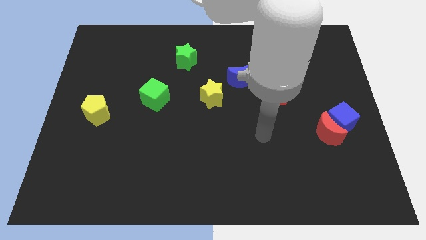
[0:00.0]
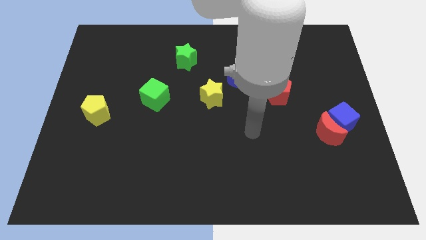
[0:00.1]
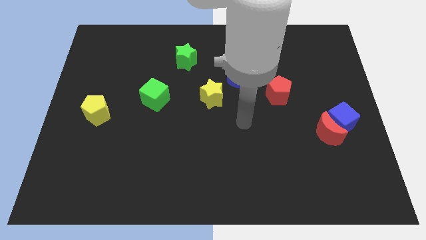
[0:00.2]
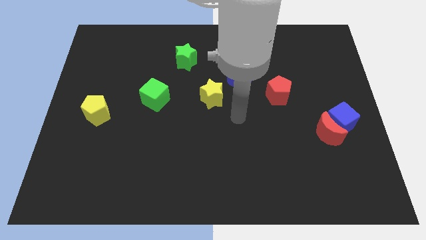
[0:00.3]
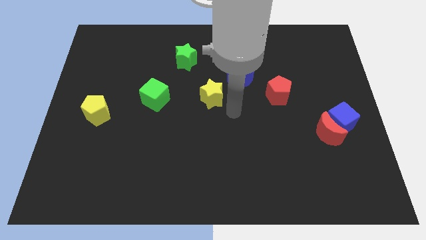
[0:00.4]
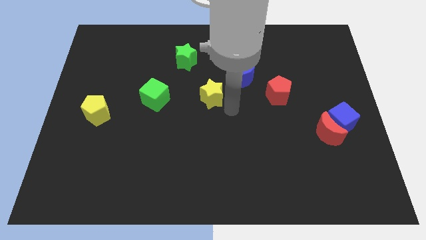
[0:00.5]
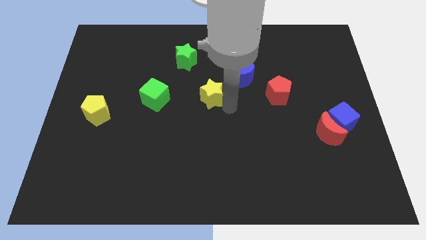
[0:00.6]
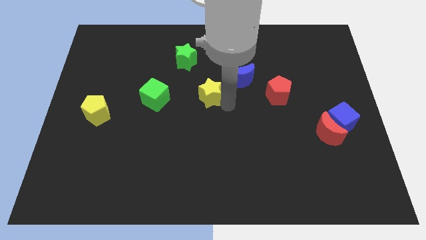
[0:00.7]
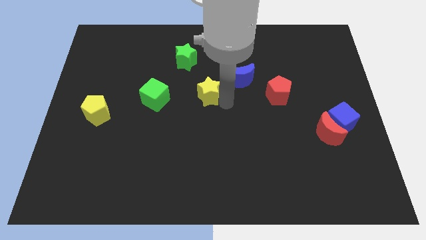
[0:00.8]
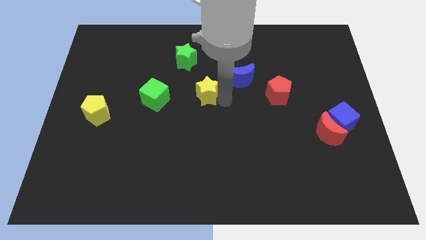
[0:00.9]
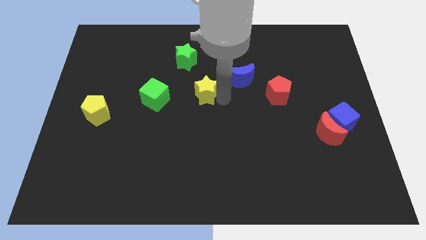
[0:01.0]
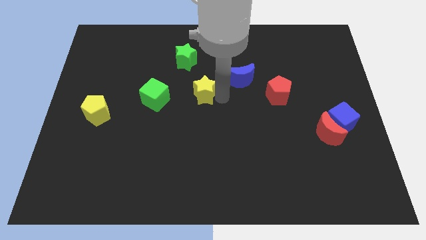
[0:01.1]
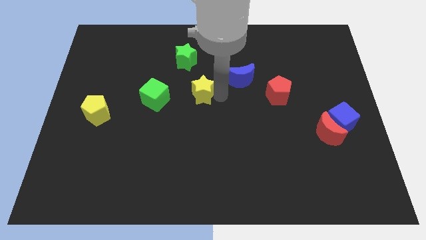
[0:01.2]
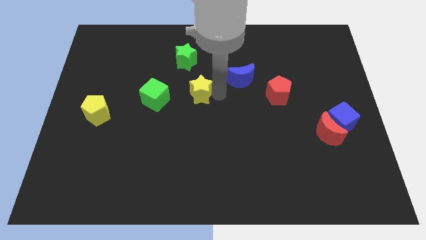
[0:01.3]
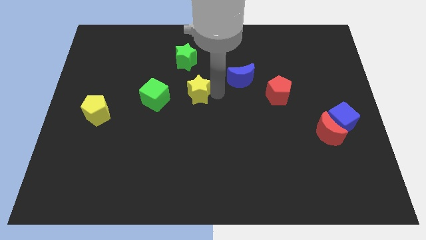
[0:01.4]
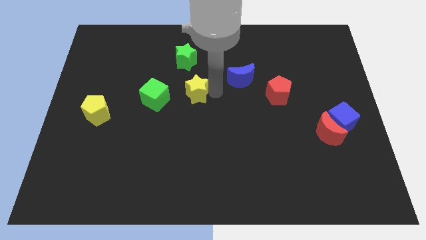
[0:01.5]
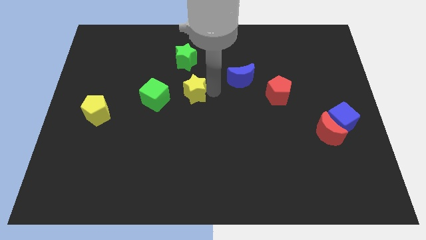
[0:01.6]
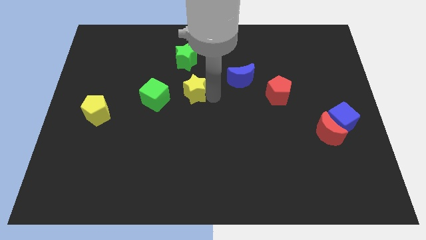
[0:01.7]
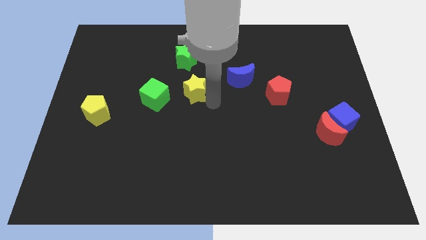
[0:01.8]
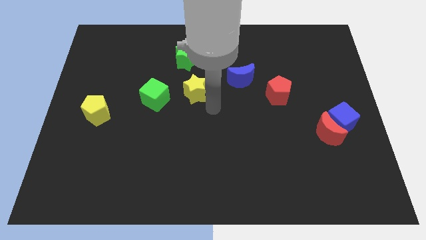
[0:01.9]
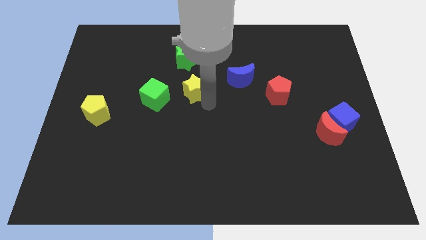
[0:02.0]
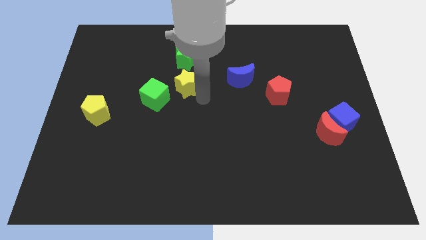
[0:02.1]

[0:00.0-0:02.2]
slide the yellow star somewhat diagonally upwards and to the left

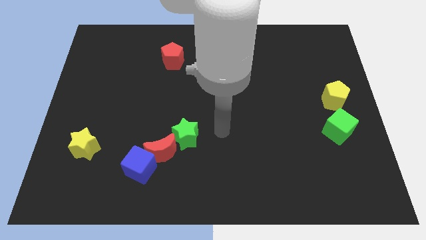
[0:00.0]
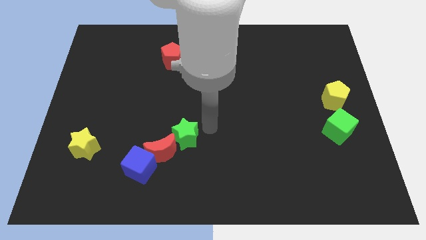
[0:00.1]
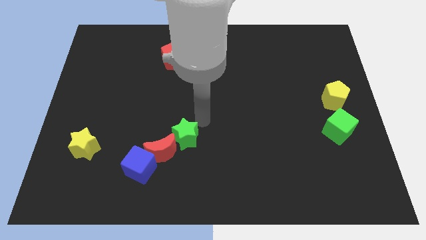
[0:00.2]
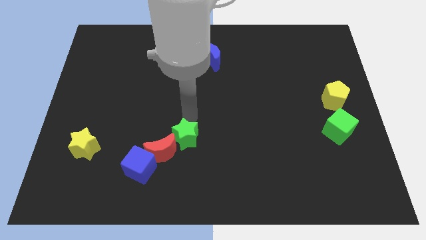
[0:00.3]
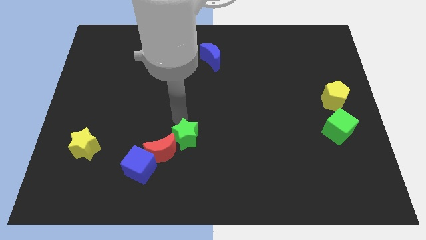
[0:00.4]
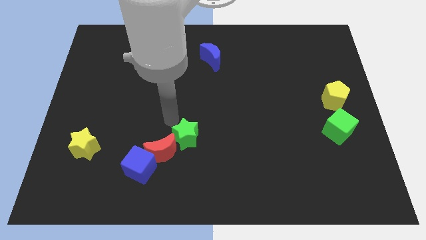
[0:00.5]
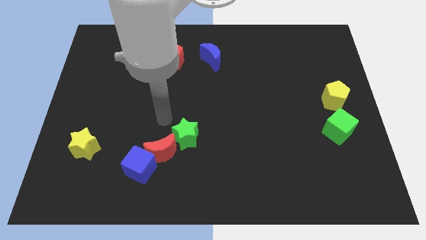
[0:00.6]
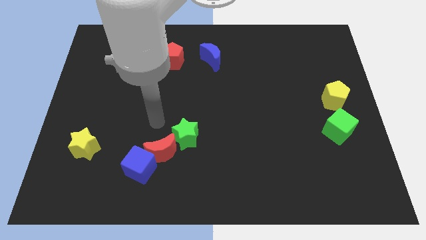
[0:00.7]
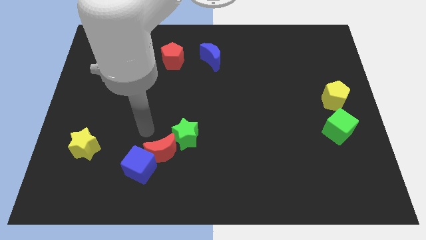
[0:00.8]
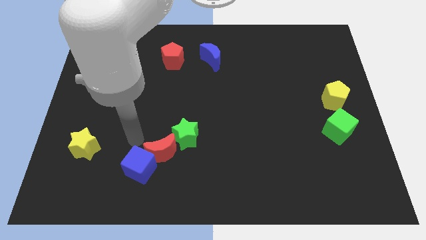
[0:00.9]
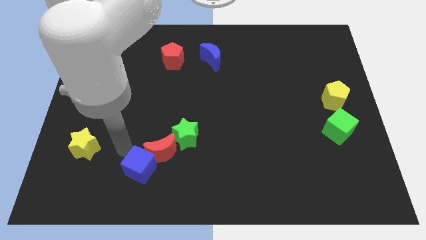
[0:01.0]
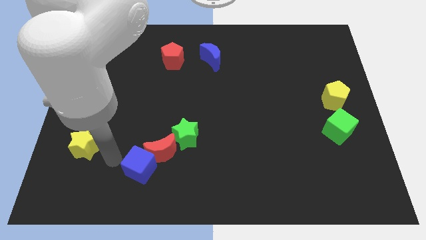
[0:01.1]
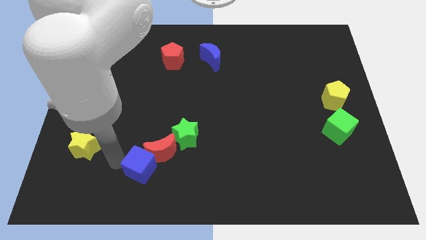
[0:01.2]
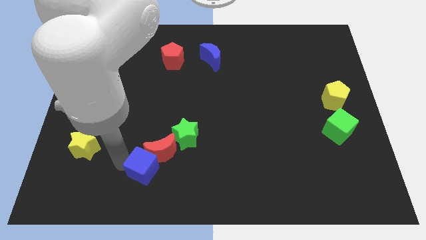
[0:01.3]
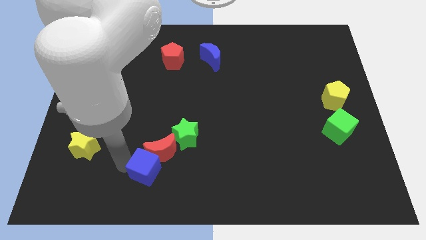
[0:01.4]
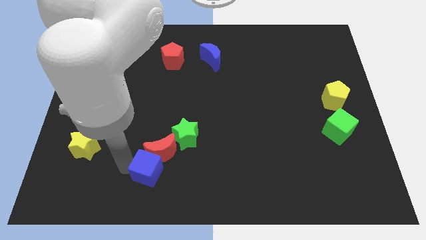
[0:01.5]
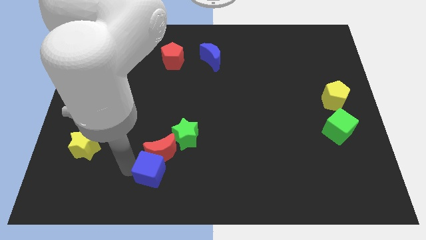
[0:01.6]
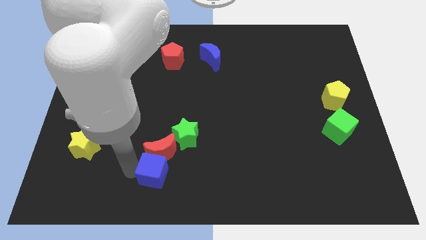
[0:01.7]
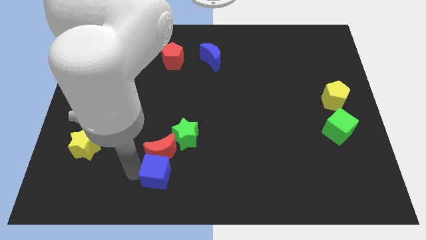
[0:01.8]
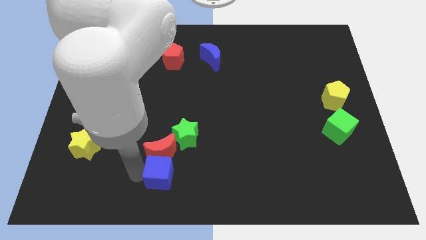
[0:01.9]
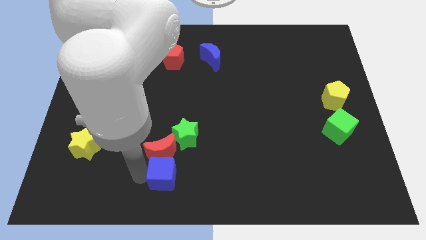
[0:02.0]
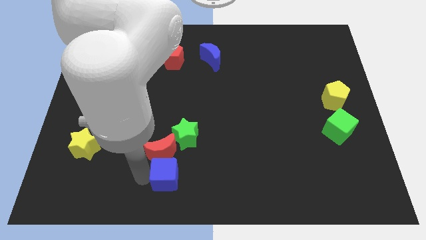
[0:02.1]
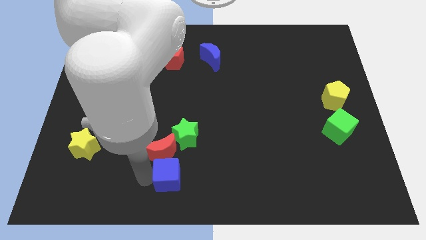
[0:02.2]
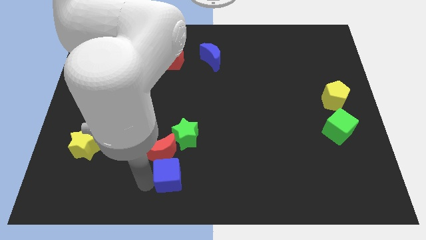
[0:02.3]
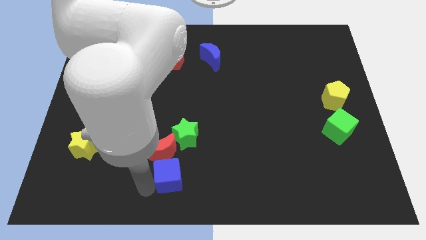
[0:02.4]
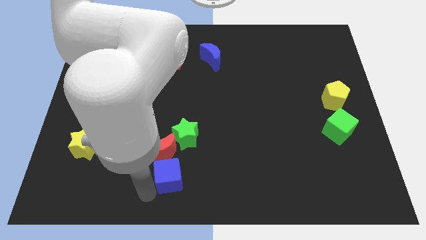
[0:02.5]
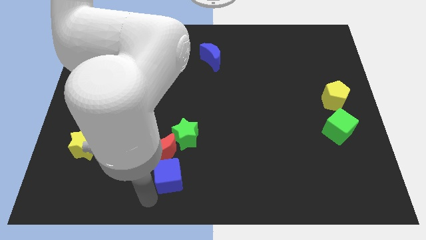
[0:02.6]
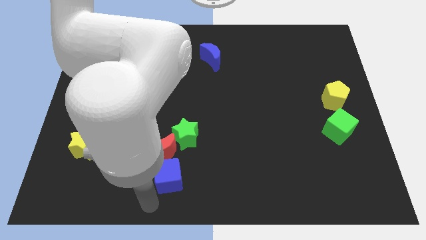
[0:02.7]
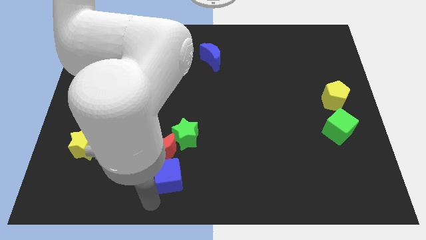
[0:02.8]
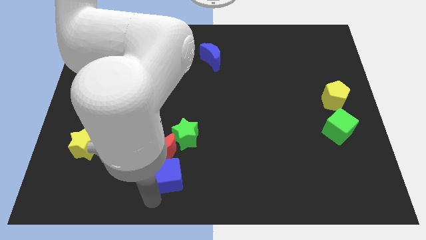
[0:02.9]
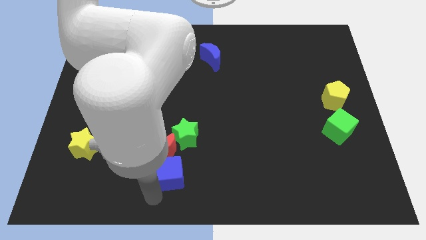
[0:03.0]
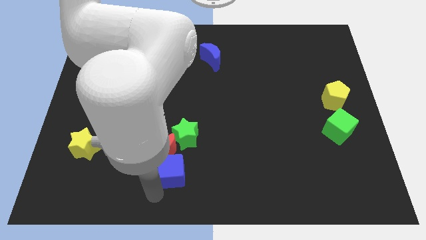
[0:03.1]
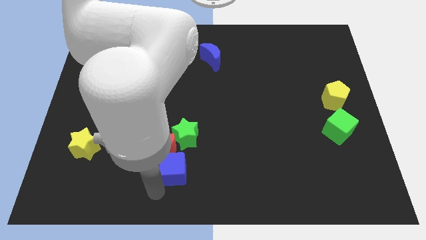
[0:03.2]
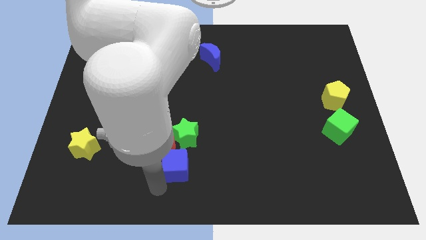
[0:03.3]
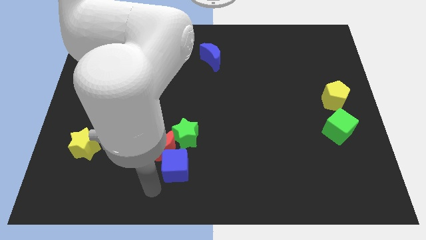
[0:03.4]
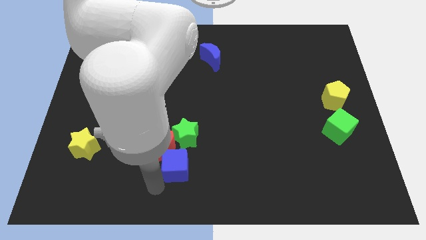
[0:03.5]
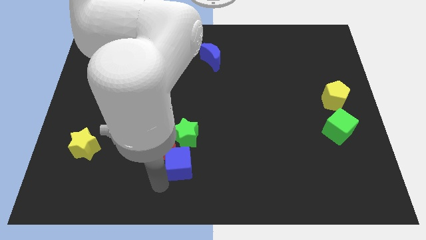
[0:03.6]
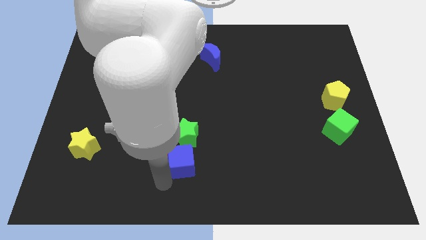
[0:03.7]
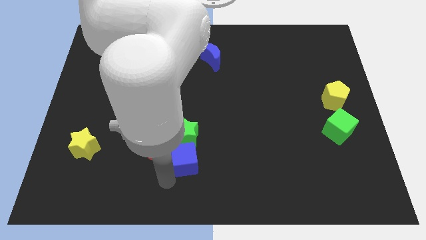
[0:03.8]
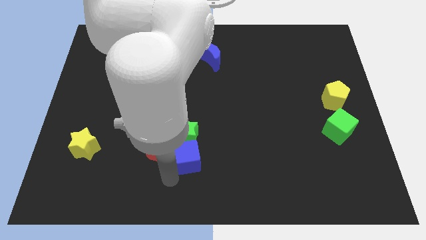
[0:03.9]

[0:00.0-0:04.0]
move the blue cube diagonally up and to the right a little bit

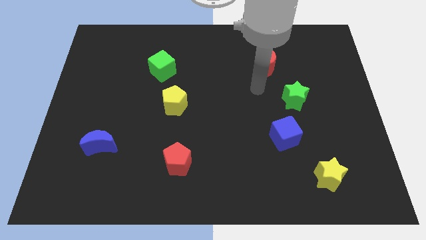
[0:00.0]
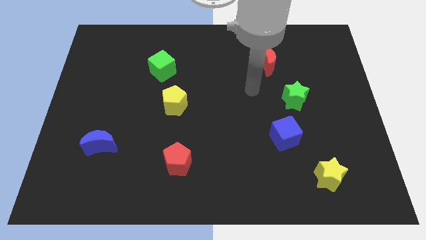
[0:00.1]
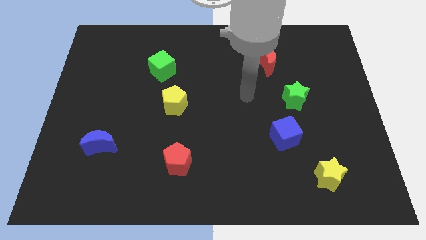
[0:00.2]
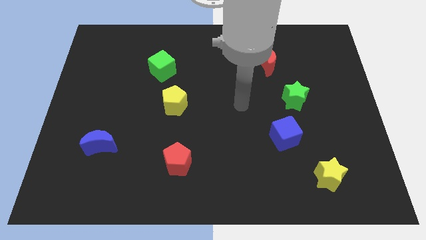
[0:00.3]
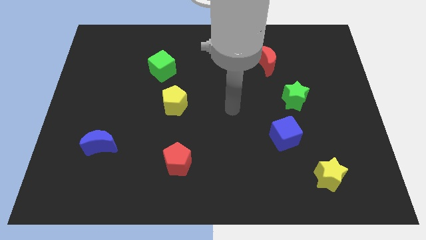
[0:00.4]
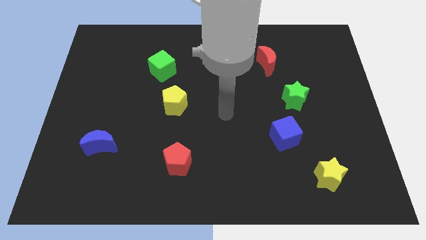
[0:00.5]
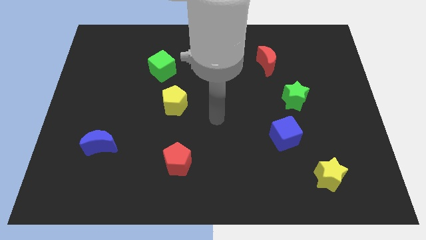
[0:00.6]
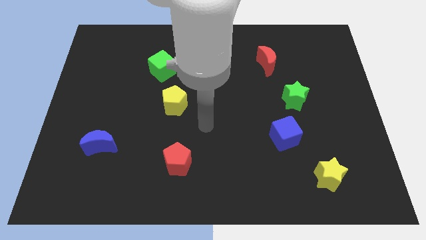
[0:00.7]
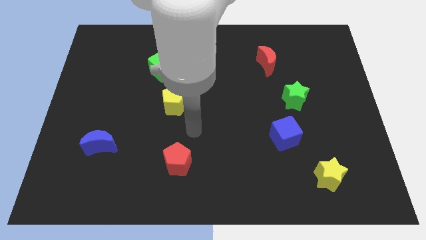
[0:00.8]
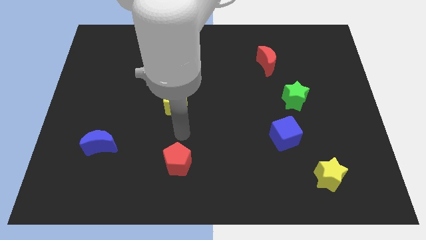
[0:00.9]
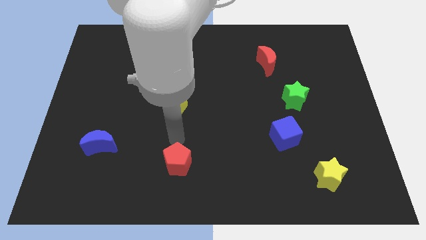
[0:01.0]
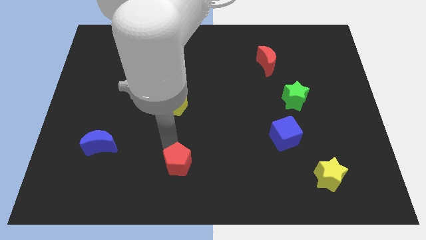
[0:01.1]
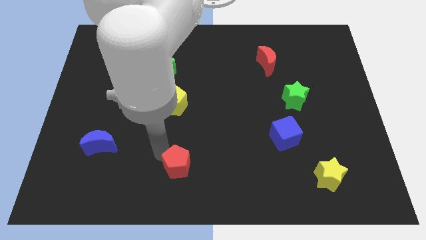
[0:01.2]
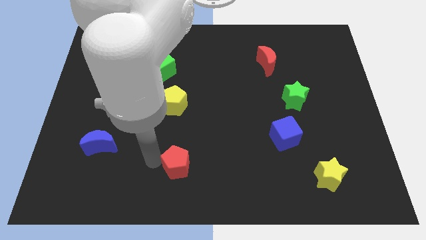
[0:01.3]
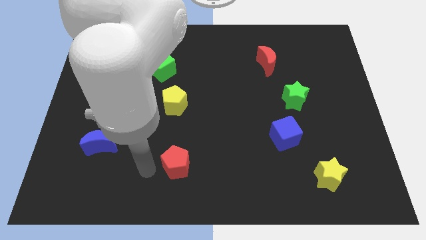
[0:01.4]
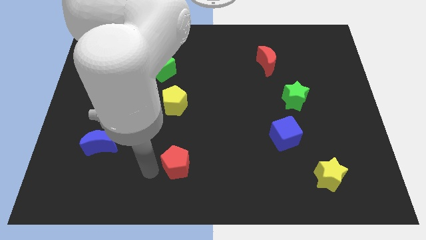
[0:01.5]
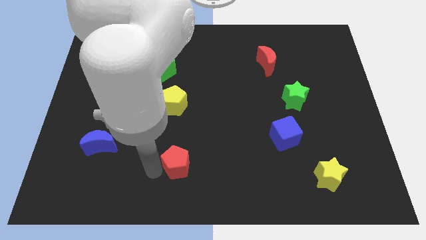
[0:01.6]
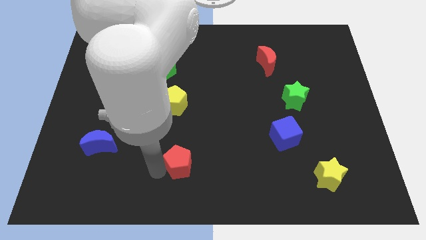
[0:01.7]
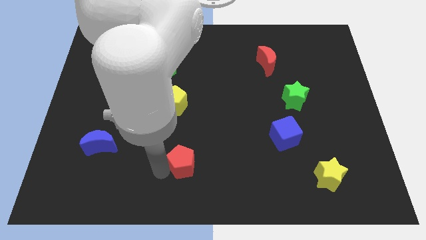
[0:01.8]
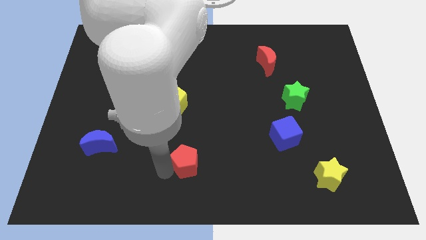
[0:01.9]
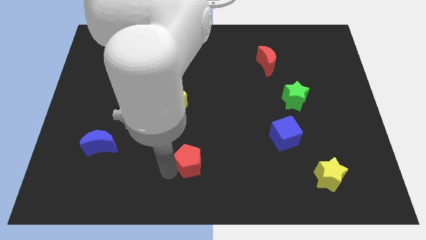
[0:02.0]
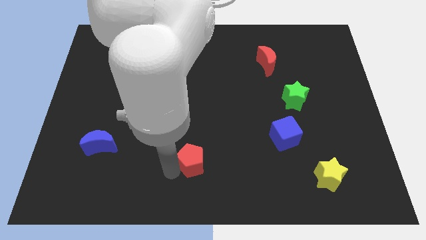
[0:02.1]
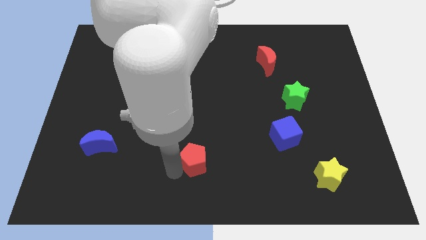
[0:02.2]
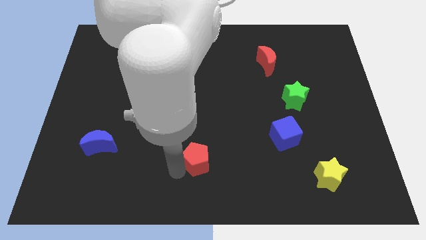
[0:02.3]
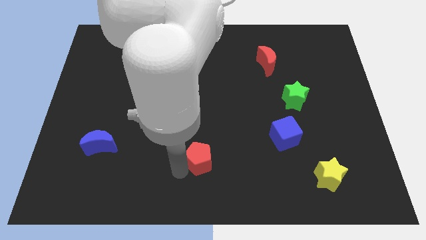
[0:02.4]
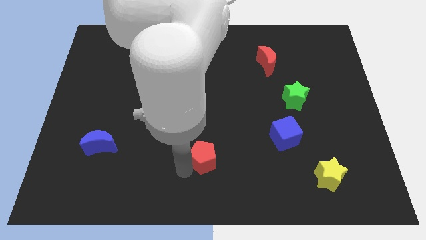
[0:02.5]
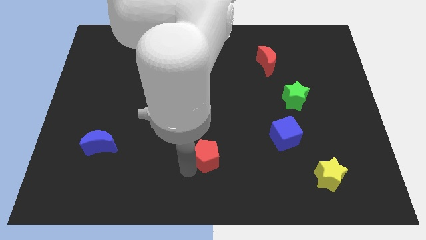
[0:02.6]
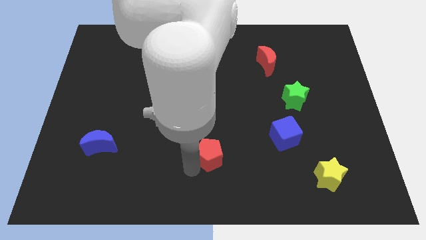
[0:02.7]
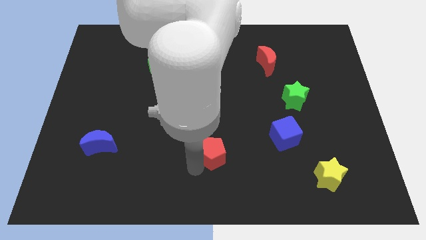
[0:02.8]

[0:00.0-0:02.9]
slide the red pentagon a little bit to the right
